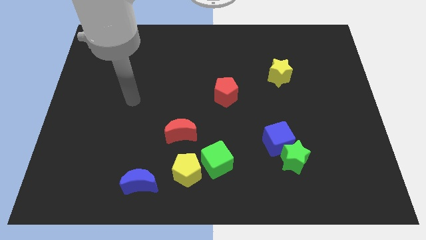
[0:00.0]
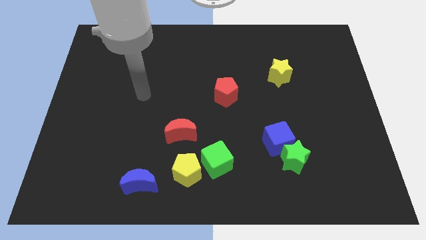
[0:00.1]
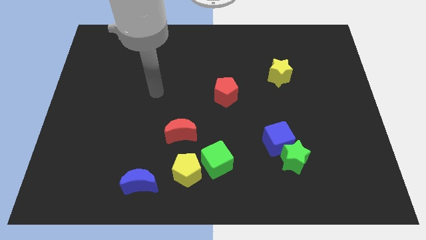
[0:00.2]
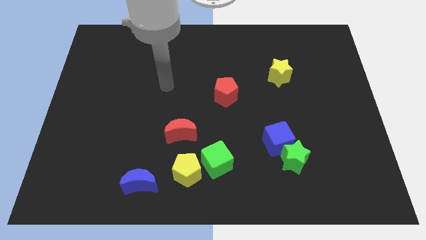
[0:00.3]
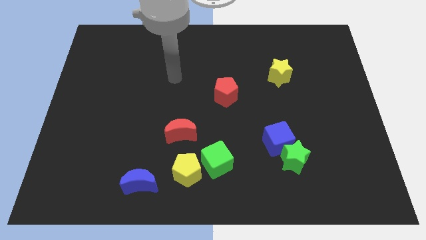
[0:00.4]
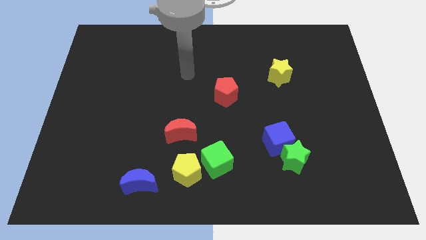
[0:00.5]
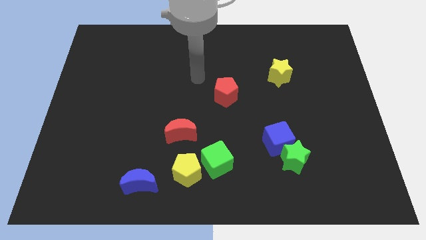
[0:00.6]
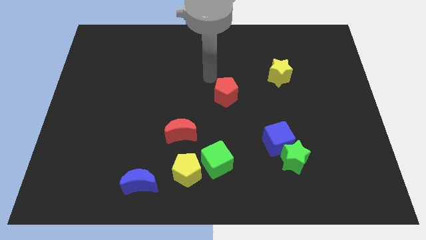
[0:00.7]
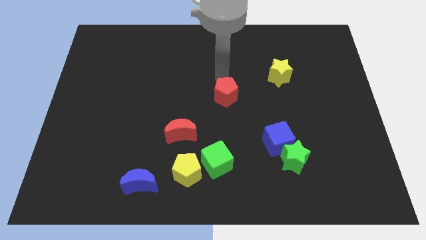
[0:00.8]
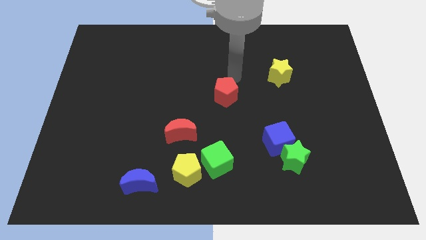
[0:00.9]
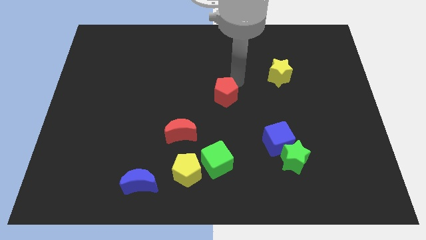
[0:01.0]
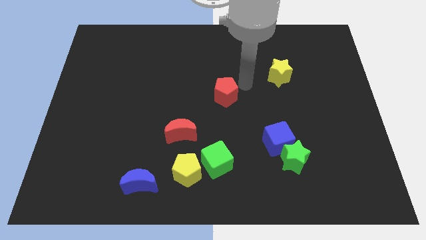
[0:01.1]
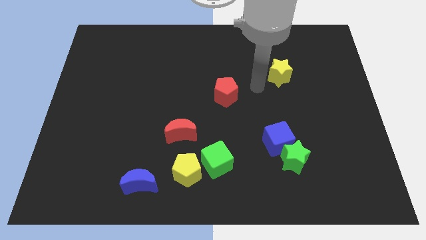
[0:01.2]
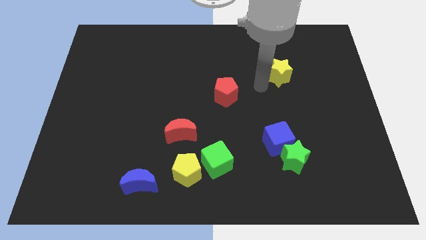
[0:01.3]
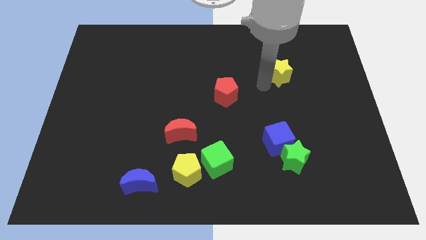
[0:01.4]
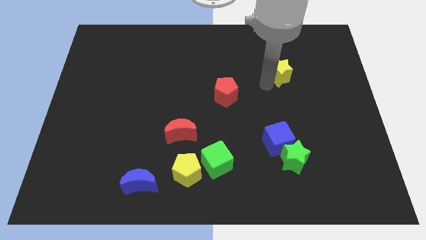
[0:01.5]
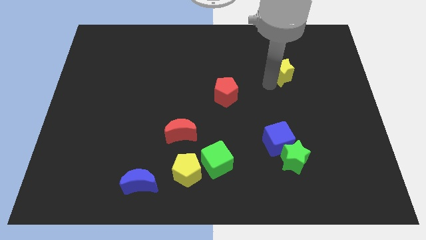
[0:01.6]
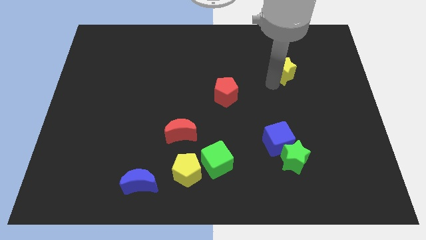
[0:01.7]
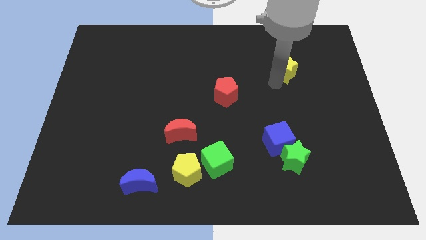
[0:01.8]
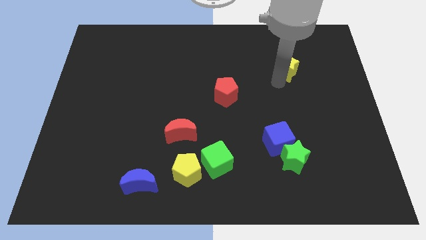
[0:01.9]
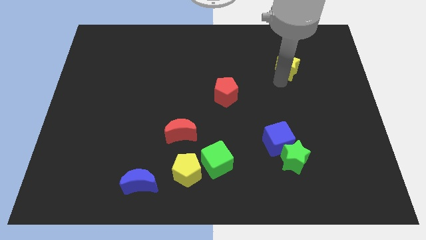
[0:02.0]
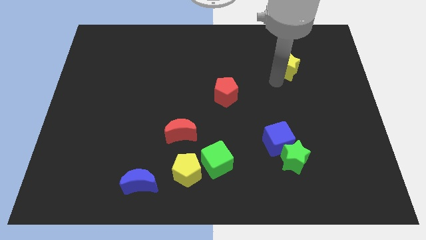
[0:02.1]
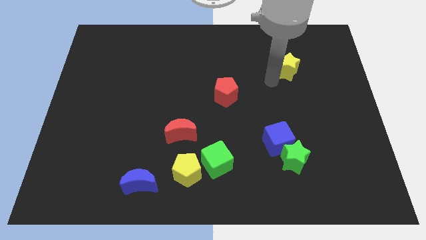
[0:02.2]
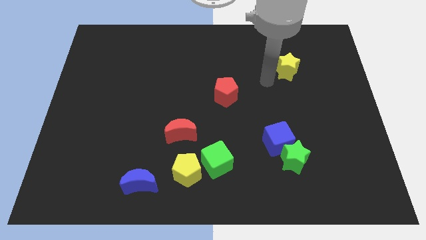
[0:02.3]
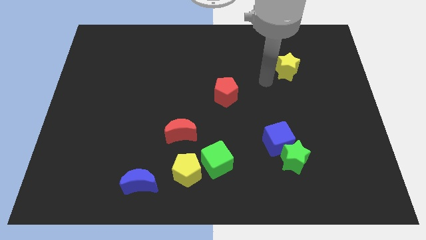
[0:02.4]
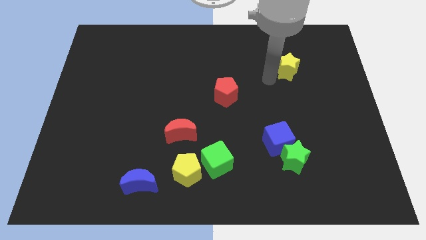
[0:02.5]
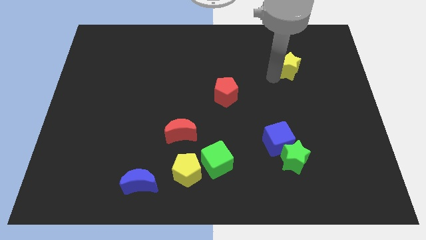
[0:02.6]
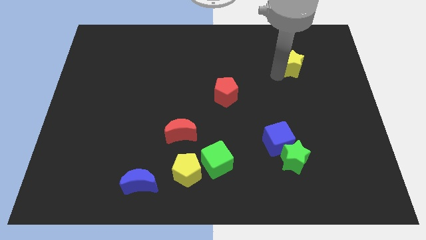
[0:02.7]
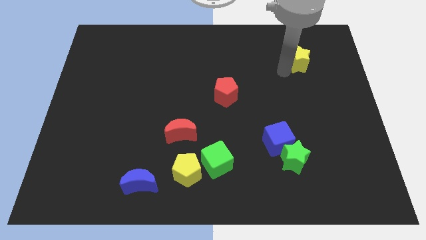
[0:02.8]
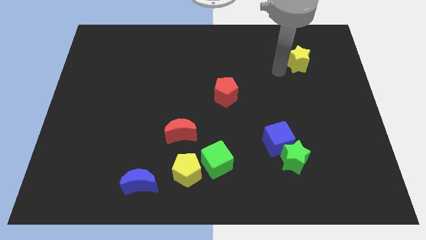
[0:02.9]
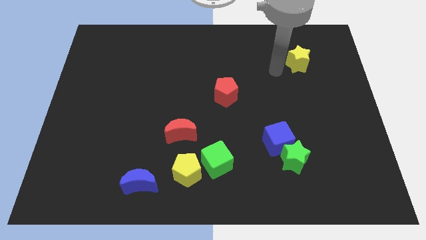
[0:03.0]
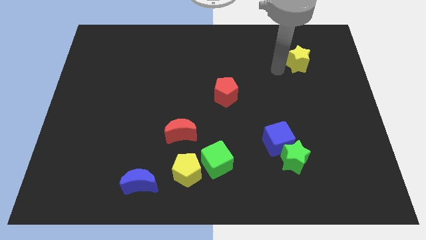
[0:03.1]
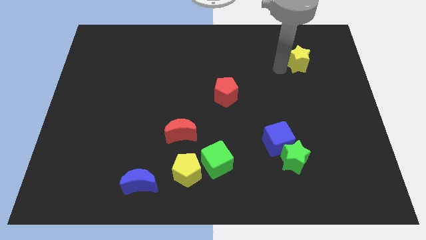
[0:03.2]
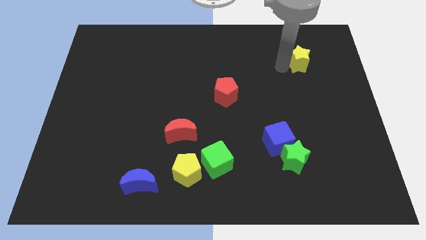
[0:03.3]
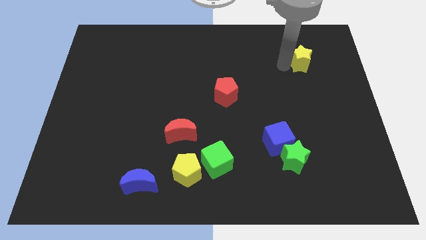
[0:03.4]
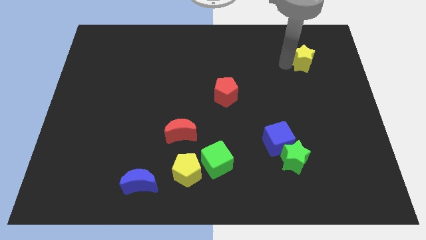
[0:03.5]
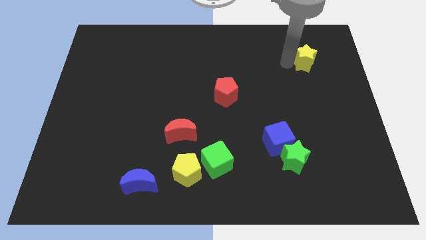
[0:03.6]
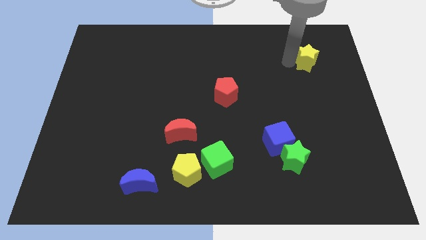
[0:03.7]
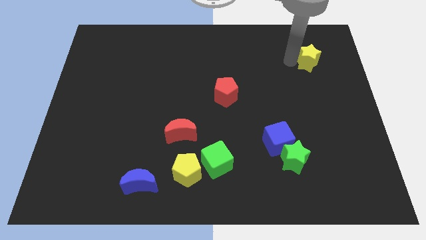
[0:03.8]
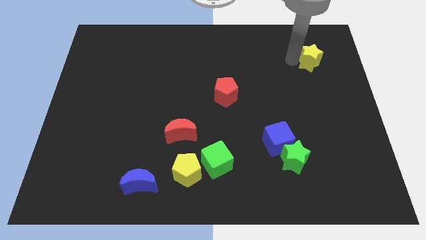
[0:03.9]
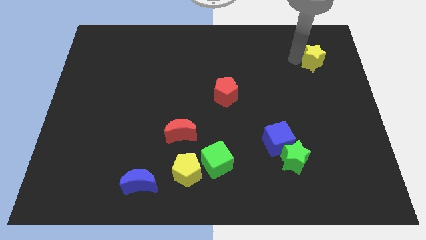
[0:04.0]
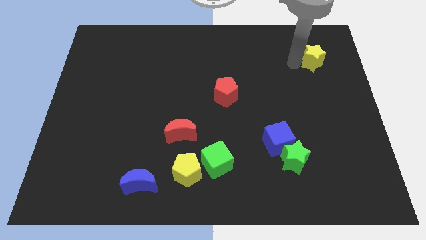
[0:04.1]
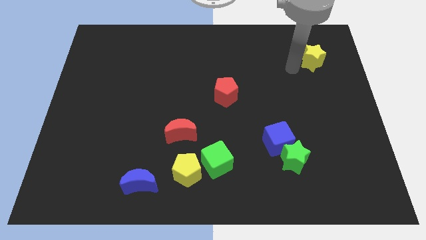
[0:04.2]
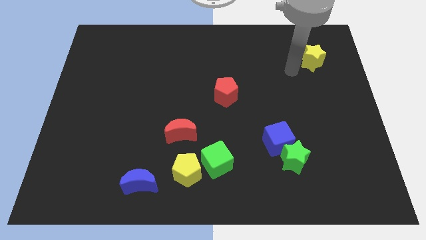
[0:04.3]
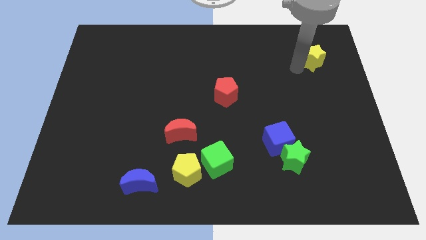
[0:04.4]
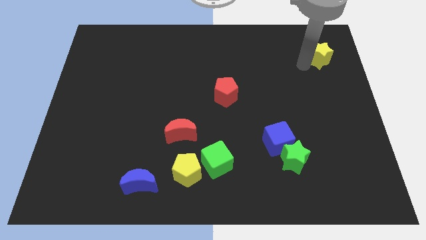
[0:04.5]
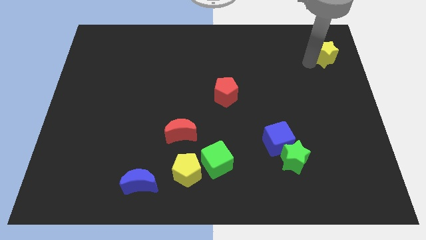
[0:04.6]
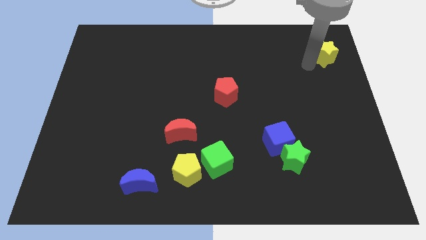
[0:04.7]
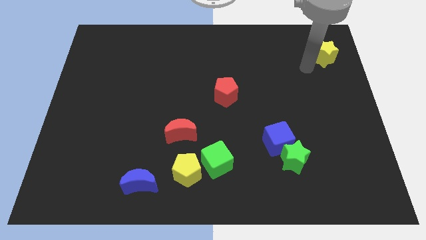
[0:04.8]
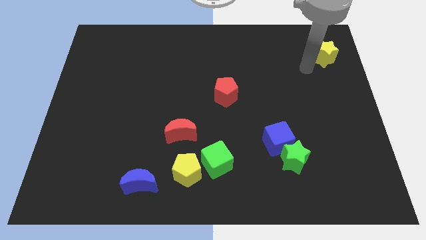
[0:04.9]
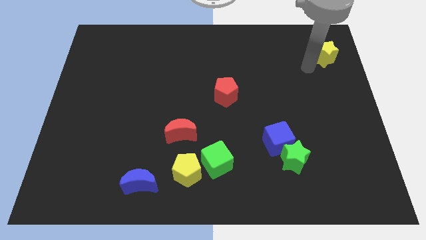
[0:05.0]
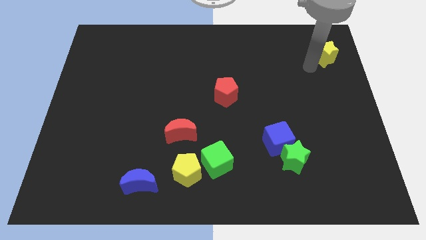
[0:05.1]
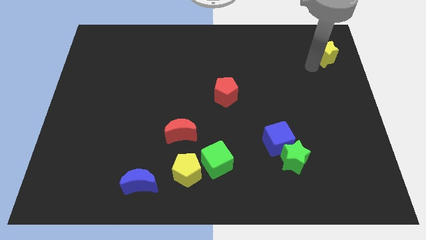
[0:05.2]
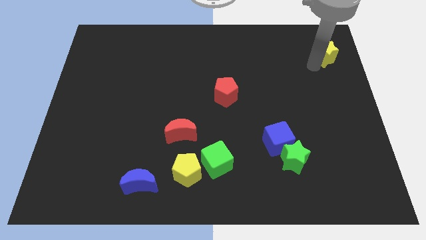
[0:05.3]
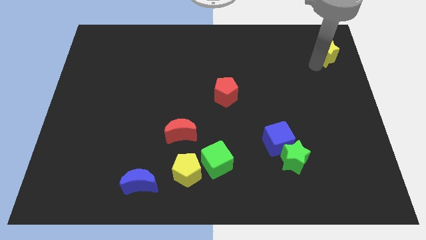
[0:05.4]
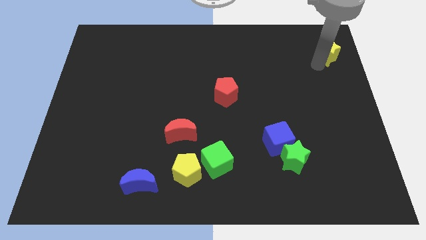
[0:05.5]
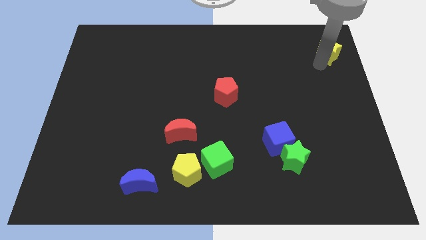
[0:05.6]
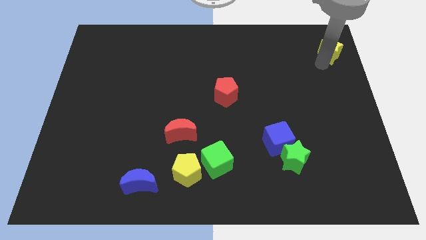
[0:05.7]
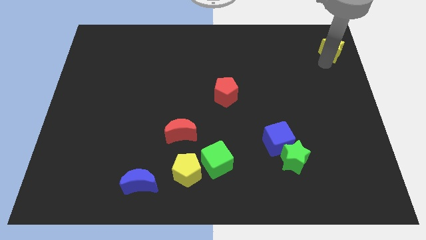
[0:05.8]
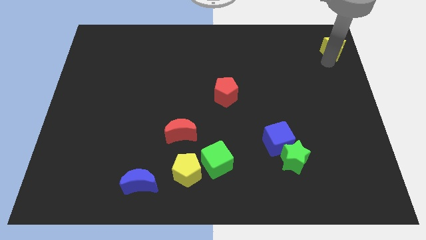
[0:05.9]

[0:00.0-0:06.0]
push the yellow star to the top right
